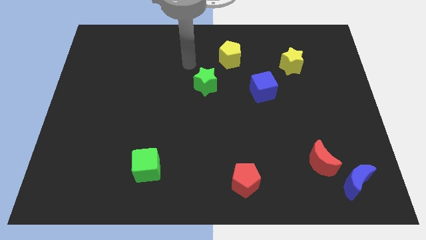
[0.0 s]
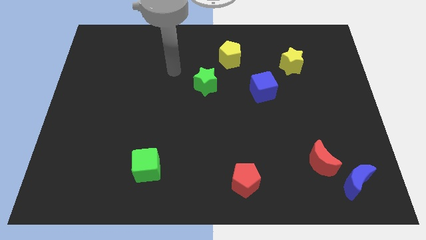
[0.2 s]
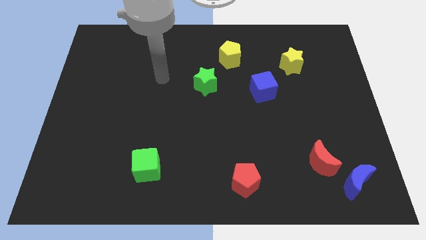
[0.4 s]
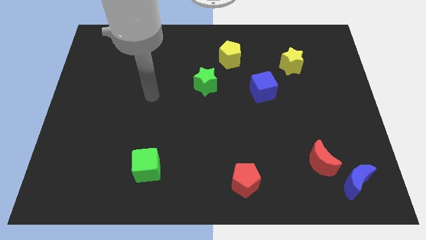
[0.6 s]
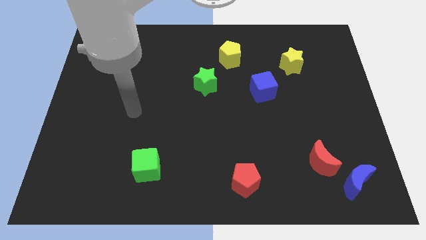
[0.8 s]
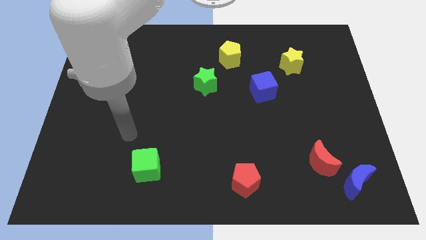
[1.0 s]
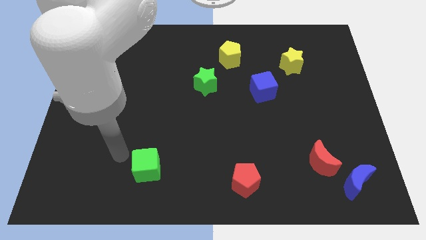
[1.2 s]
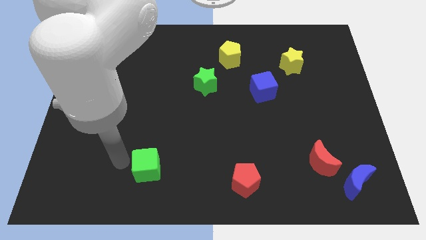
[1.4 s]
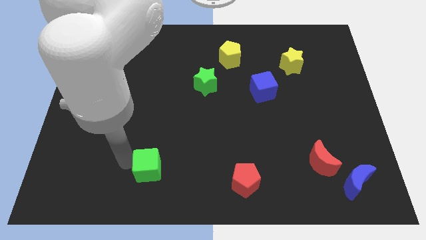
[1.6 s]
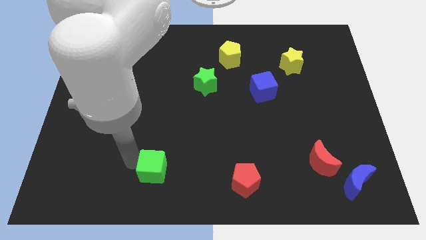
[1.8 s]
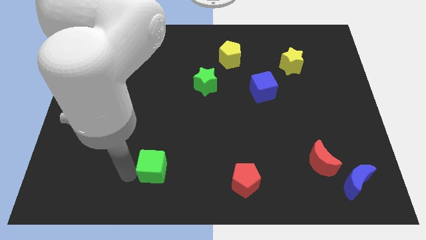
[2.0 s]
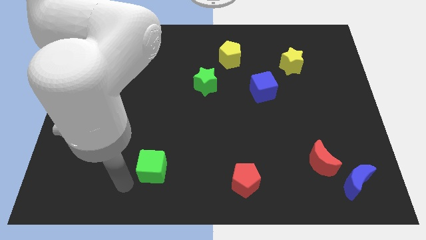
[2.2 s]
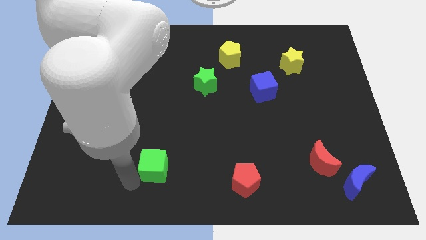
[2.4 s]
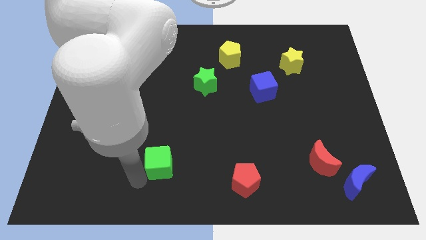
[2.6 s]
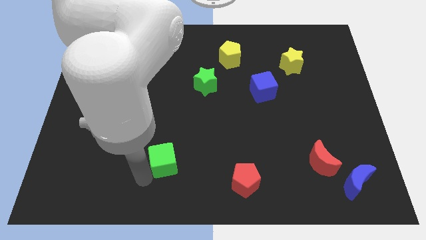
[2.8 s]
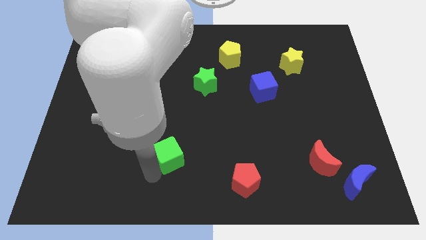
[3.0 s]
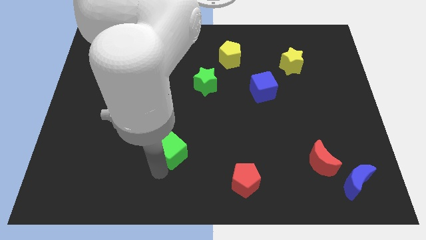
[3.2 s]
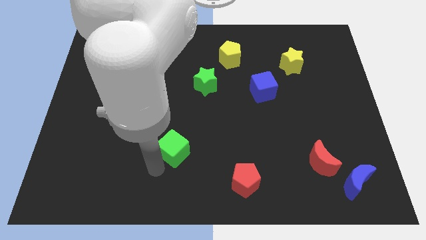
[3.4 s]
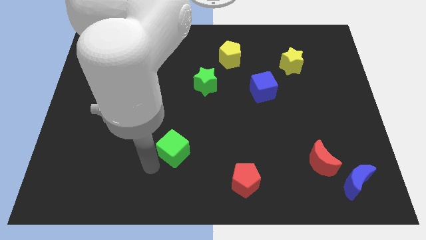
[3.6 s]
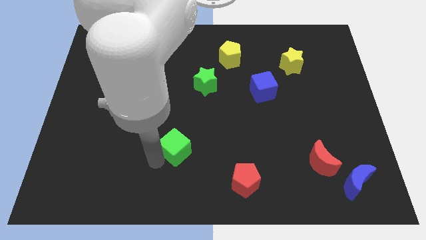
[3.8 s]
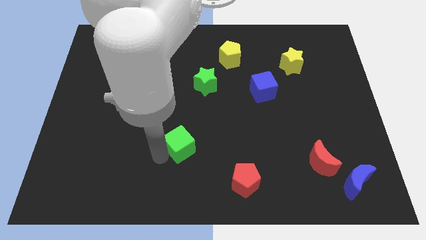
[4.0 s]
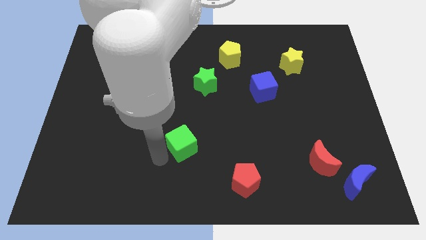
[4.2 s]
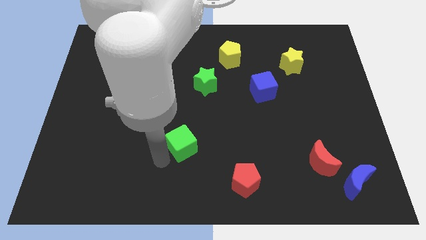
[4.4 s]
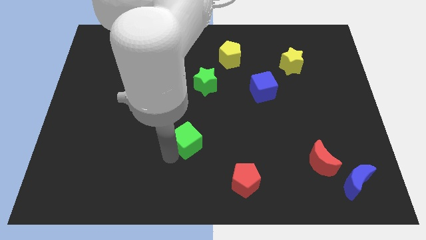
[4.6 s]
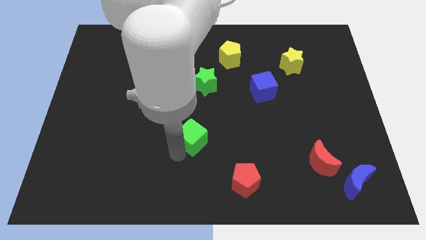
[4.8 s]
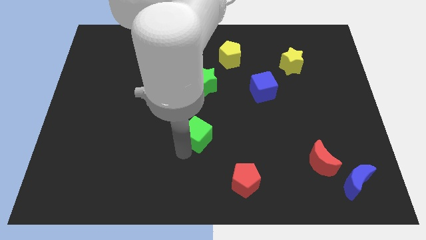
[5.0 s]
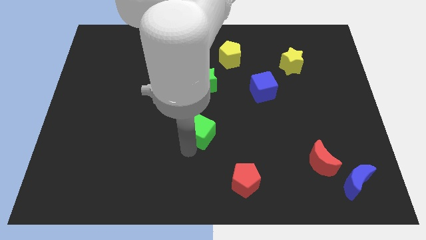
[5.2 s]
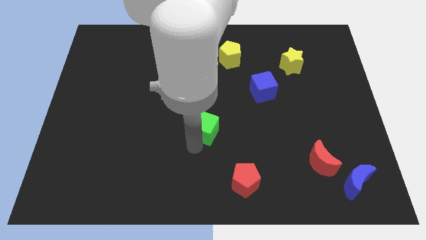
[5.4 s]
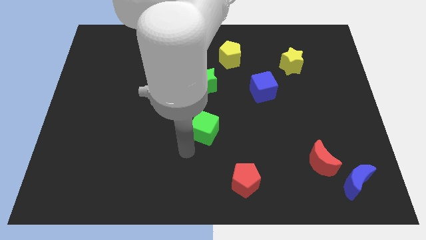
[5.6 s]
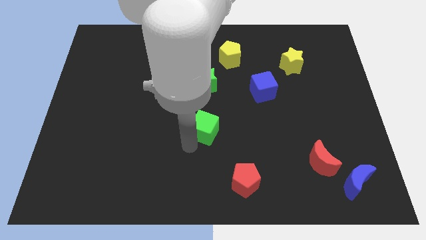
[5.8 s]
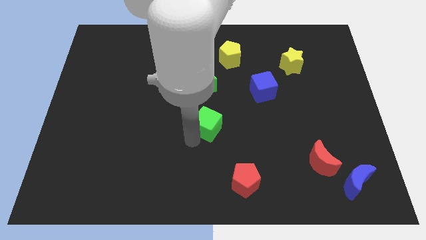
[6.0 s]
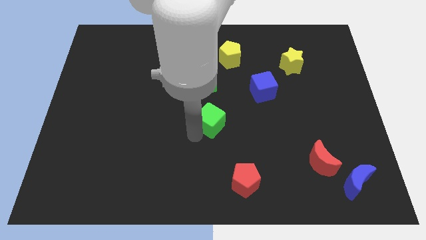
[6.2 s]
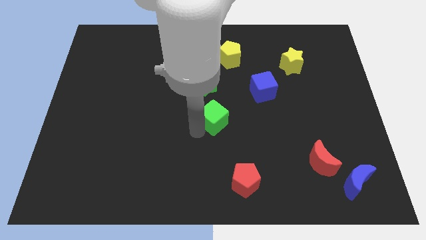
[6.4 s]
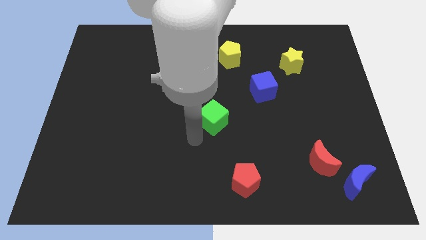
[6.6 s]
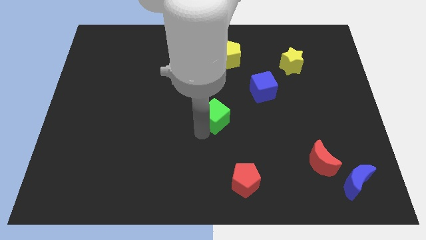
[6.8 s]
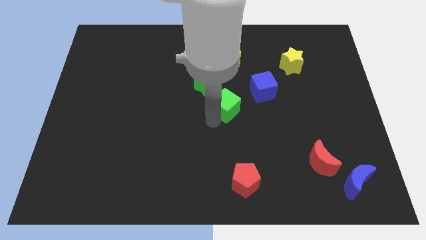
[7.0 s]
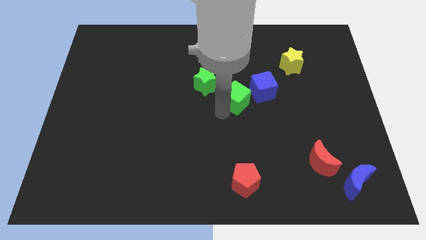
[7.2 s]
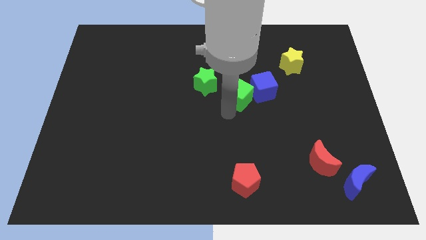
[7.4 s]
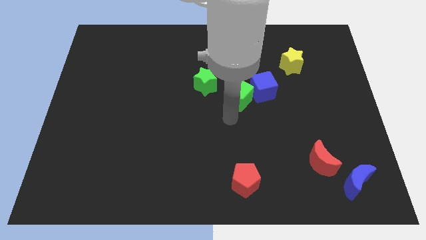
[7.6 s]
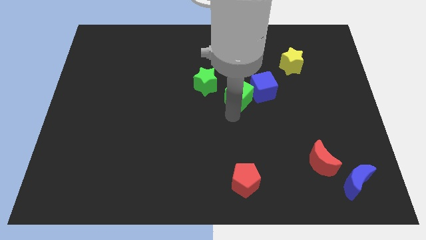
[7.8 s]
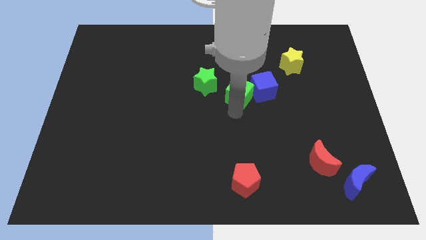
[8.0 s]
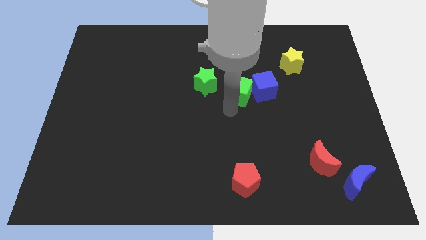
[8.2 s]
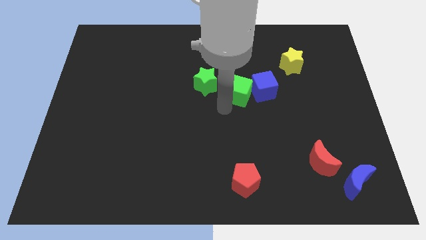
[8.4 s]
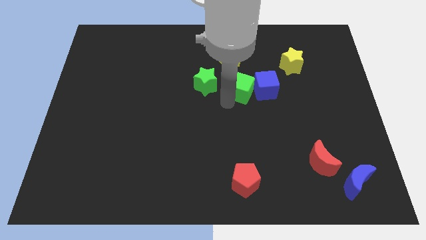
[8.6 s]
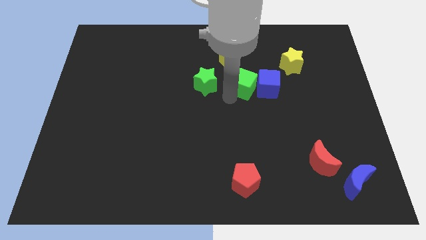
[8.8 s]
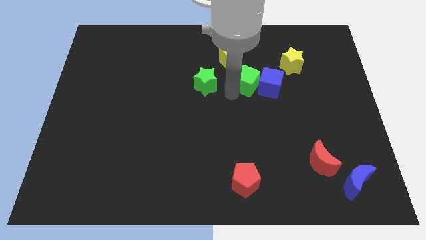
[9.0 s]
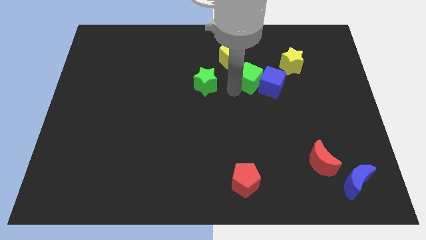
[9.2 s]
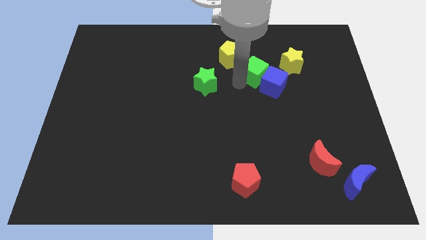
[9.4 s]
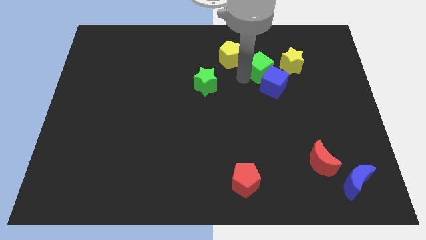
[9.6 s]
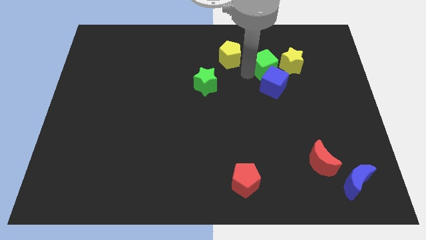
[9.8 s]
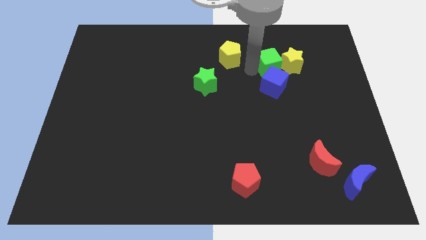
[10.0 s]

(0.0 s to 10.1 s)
slide the green cube towards the yellow star

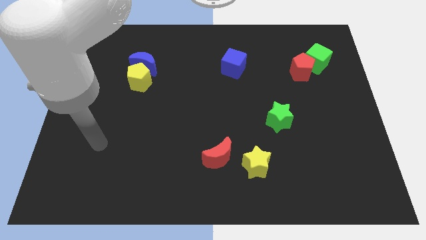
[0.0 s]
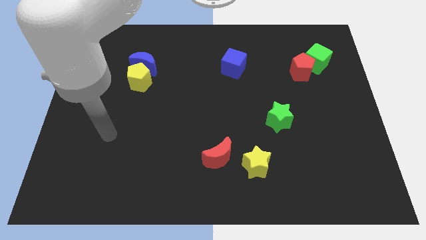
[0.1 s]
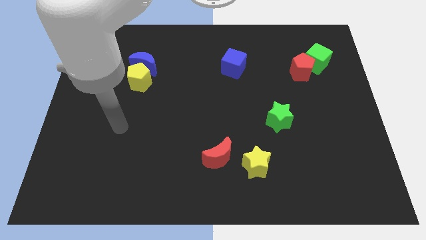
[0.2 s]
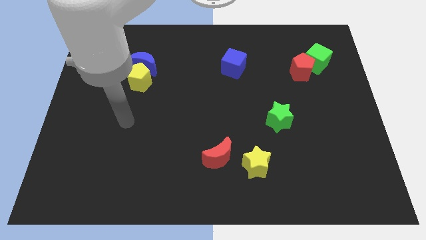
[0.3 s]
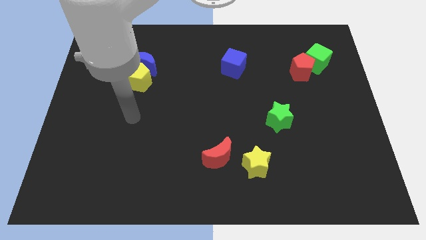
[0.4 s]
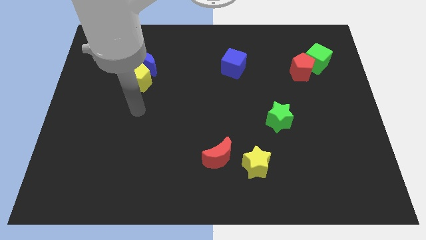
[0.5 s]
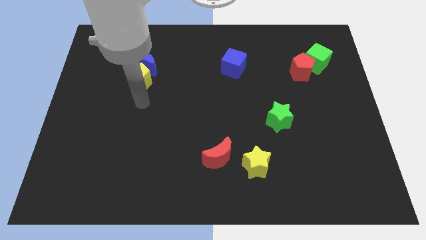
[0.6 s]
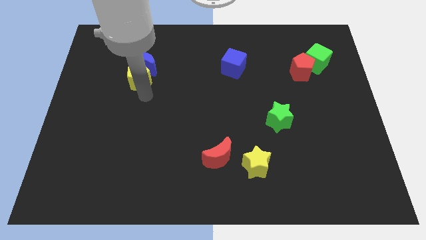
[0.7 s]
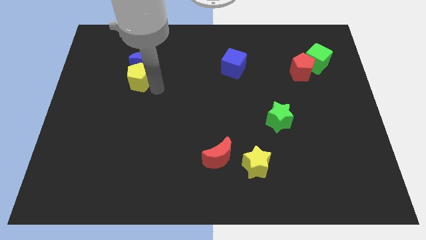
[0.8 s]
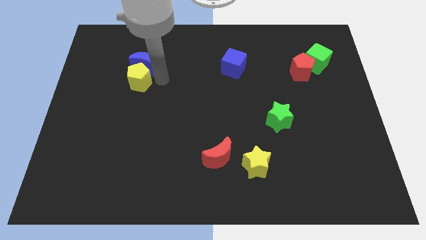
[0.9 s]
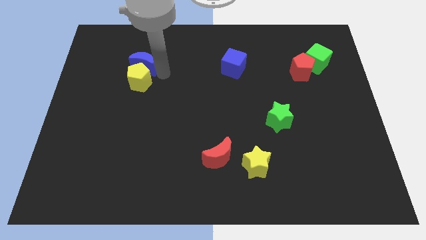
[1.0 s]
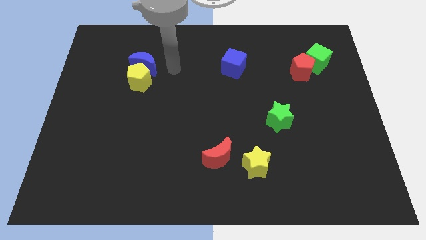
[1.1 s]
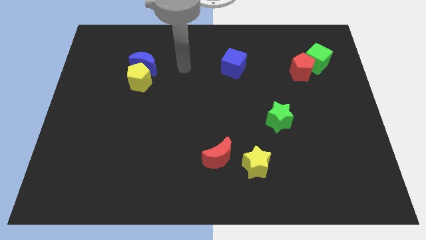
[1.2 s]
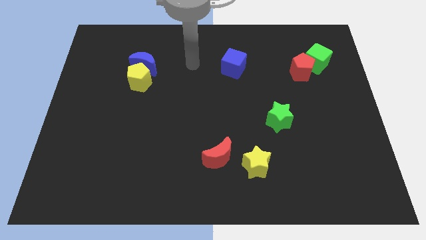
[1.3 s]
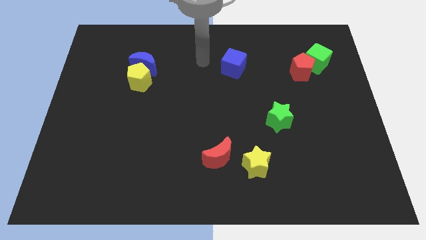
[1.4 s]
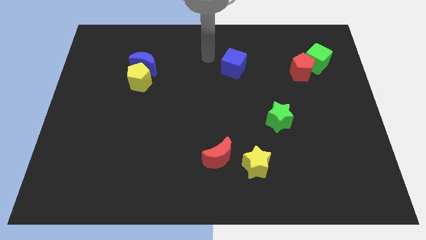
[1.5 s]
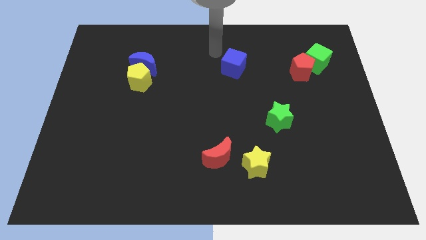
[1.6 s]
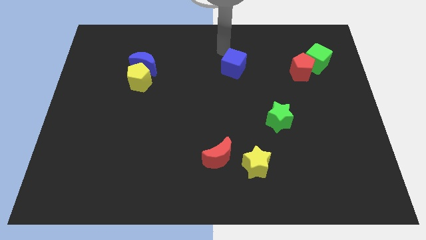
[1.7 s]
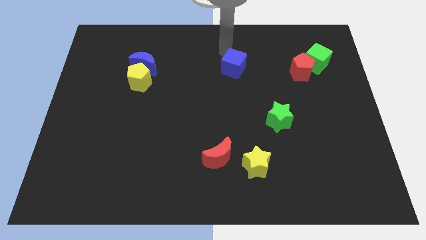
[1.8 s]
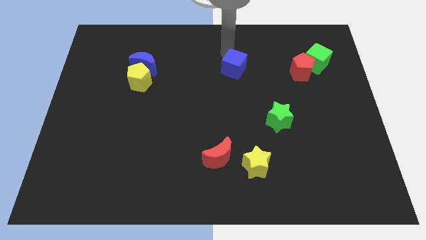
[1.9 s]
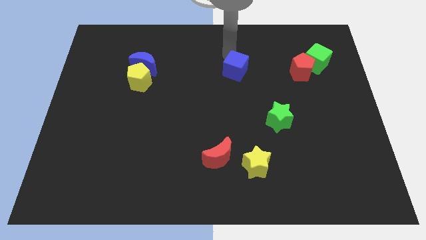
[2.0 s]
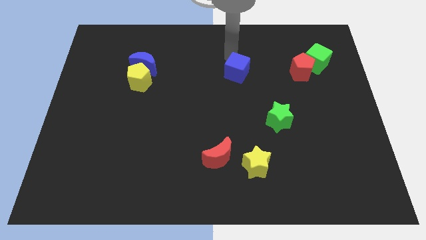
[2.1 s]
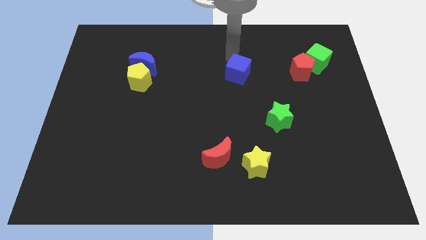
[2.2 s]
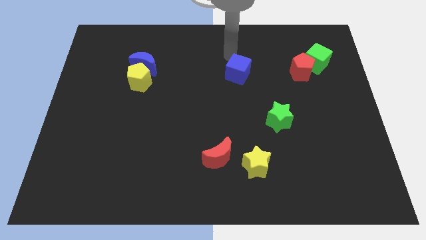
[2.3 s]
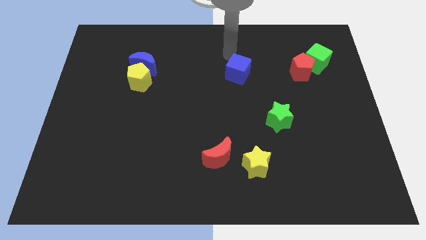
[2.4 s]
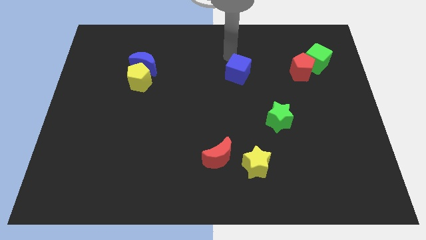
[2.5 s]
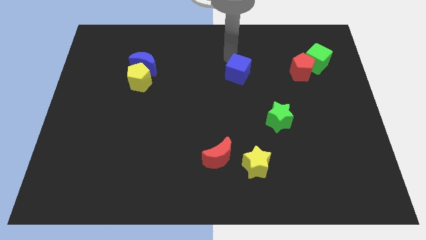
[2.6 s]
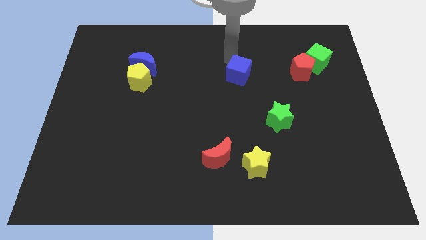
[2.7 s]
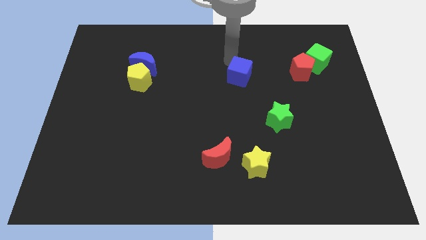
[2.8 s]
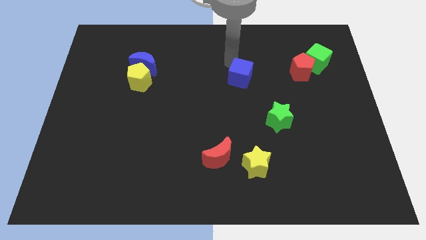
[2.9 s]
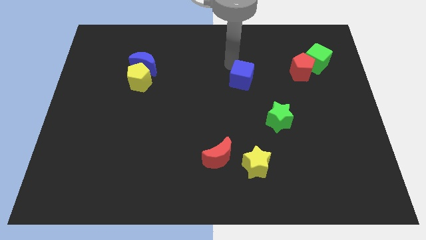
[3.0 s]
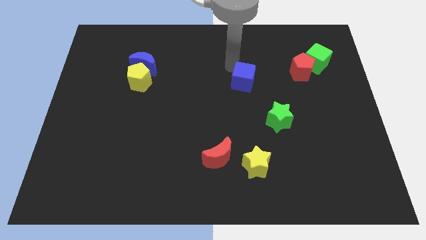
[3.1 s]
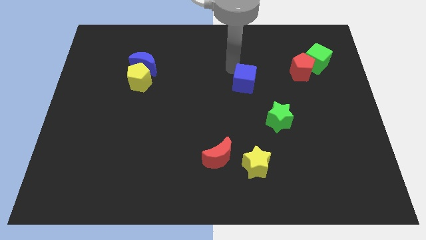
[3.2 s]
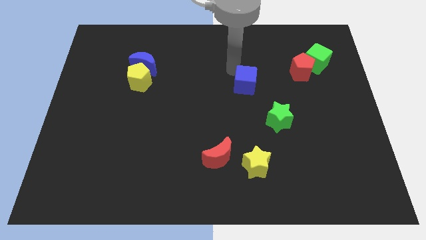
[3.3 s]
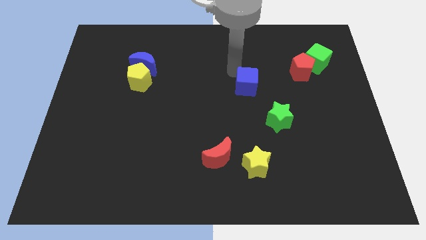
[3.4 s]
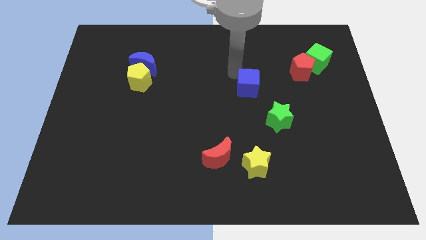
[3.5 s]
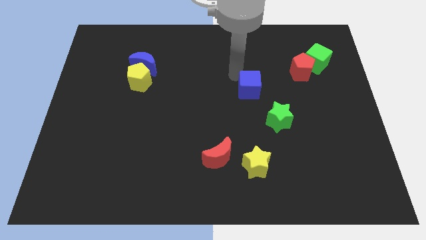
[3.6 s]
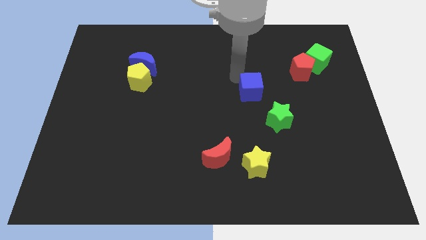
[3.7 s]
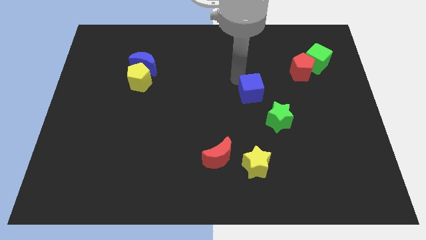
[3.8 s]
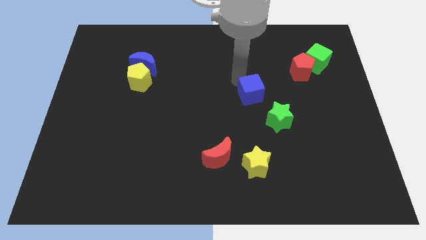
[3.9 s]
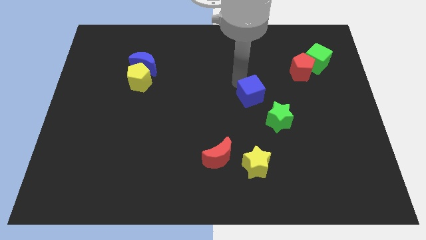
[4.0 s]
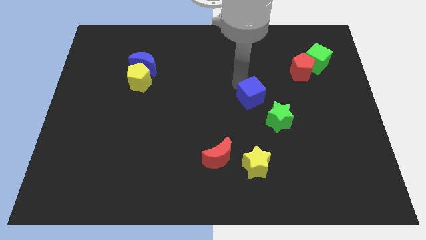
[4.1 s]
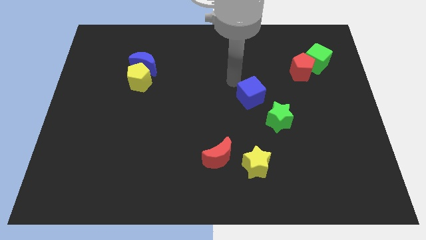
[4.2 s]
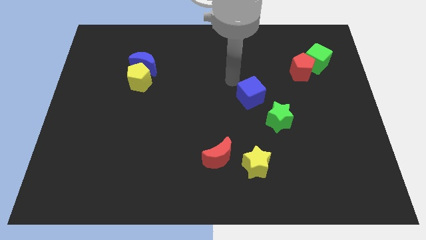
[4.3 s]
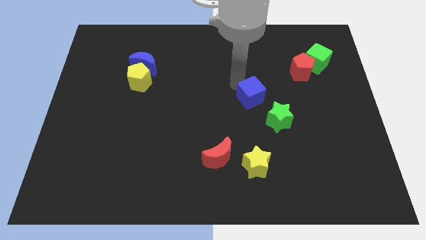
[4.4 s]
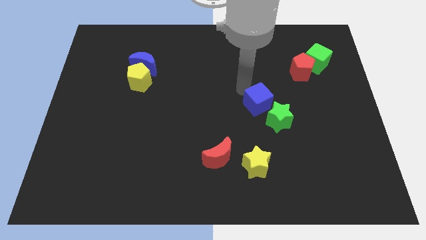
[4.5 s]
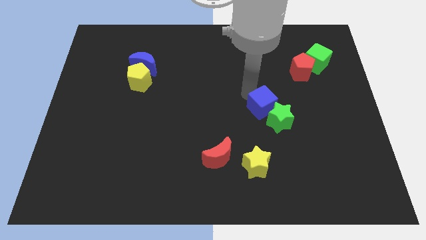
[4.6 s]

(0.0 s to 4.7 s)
push the blue cube close to the green star
